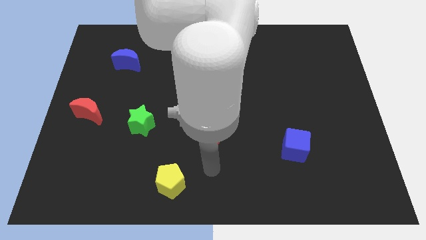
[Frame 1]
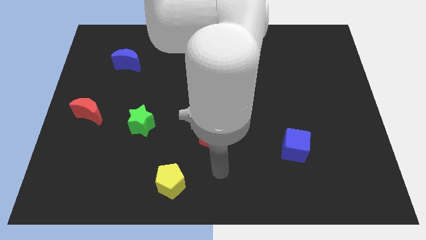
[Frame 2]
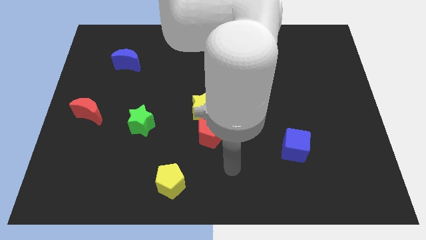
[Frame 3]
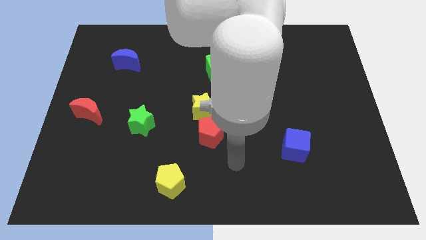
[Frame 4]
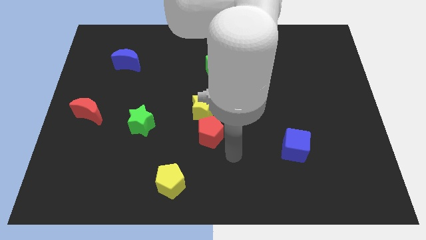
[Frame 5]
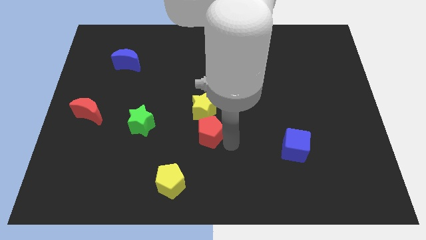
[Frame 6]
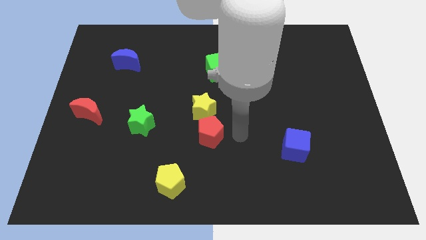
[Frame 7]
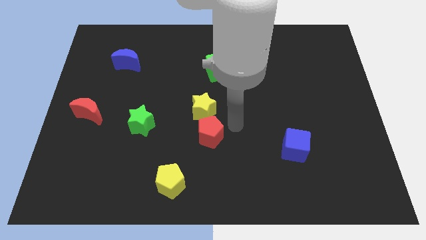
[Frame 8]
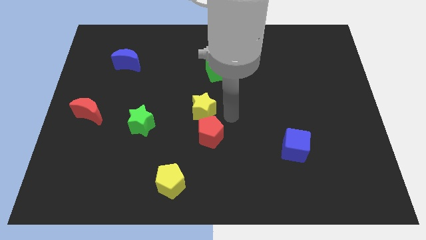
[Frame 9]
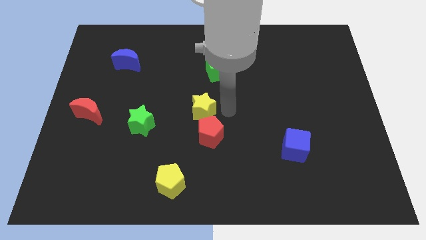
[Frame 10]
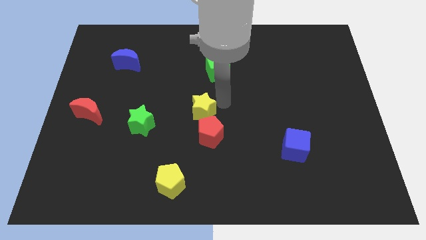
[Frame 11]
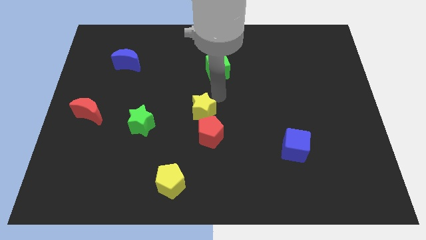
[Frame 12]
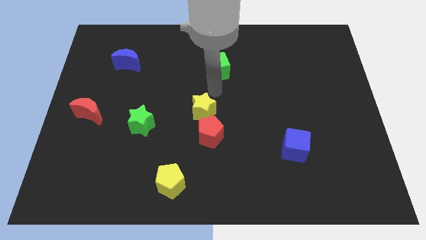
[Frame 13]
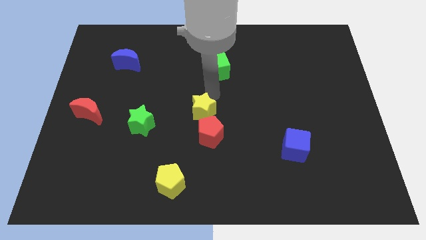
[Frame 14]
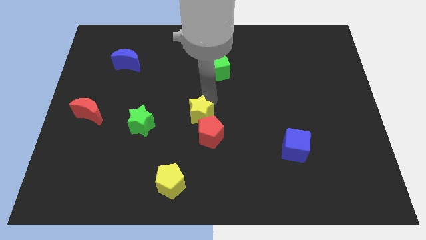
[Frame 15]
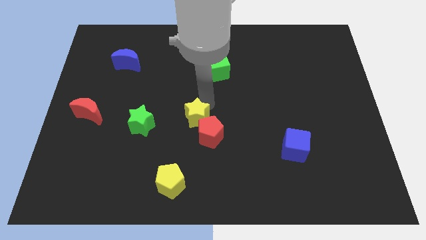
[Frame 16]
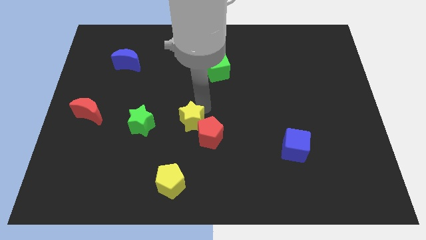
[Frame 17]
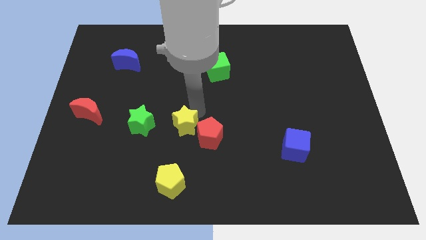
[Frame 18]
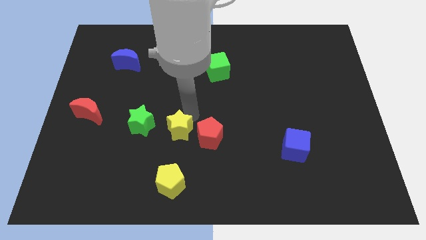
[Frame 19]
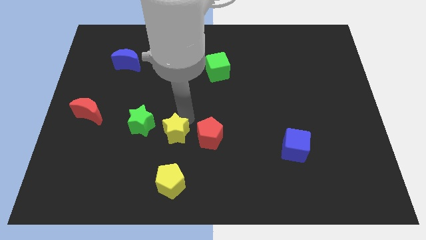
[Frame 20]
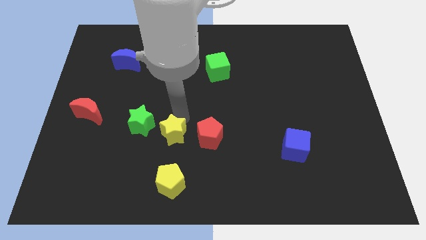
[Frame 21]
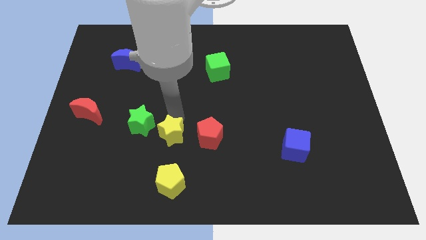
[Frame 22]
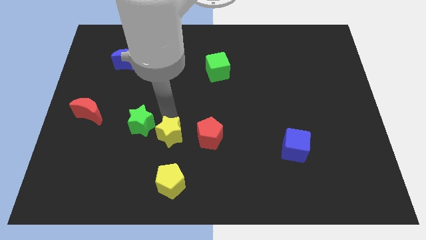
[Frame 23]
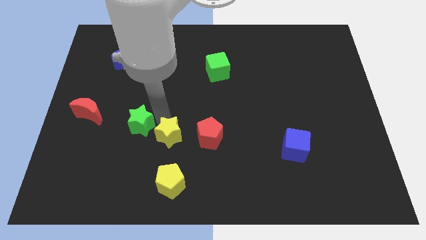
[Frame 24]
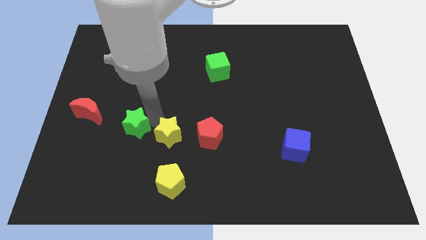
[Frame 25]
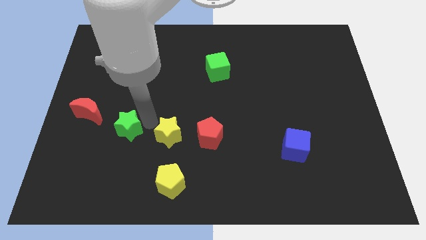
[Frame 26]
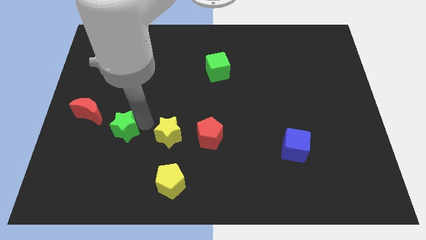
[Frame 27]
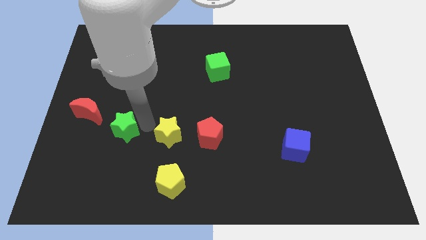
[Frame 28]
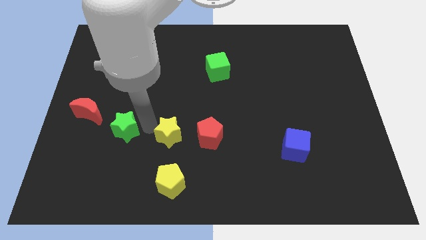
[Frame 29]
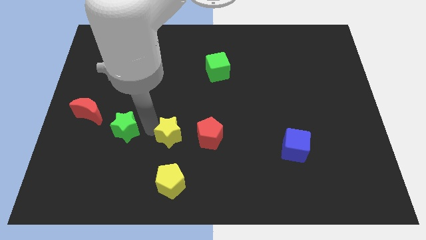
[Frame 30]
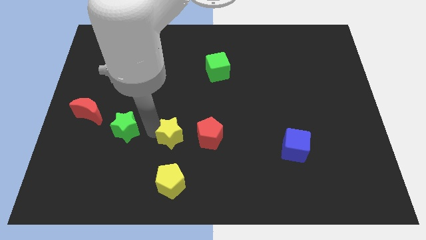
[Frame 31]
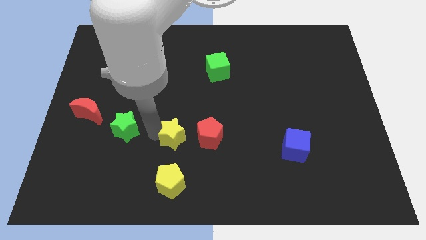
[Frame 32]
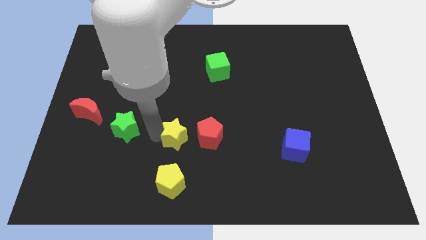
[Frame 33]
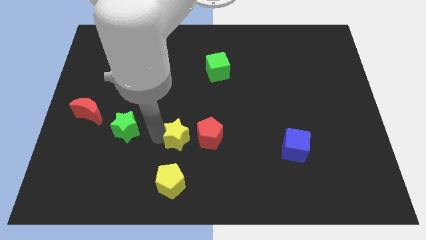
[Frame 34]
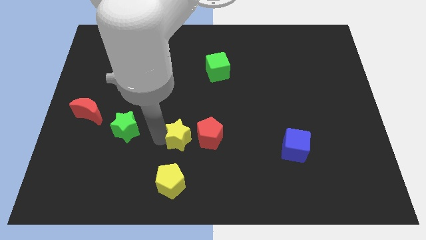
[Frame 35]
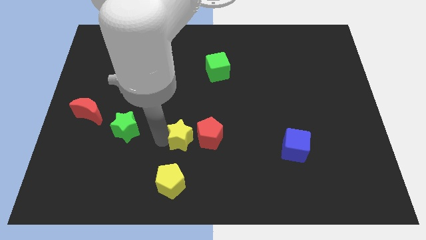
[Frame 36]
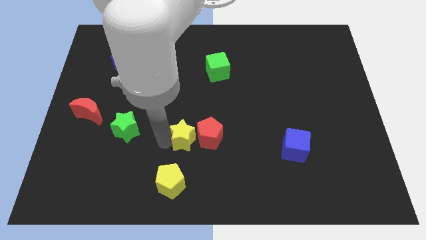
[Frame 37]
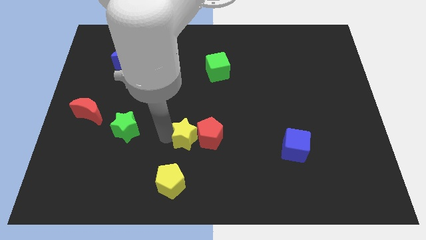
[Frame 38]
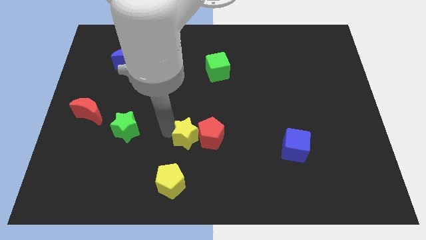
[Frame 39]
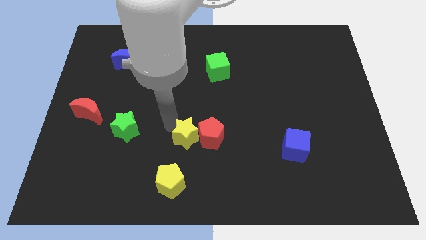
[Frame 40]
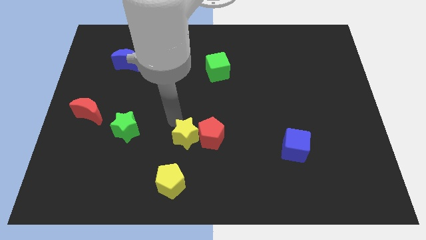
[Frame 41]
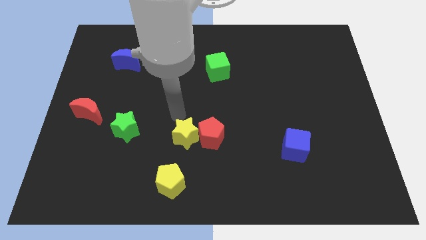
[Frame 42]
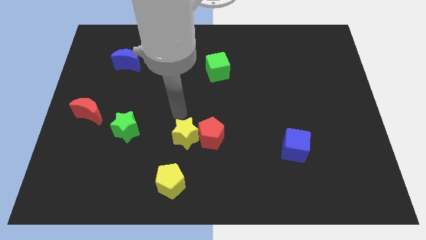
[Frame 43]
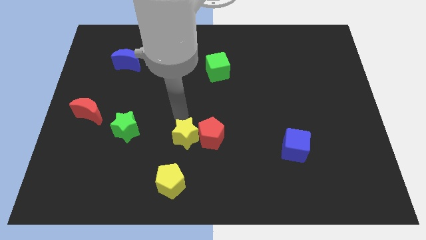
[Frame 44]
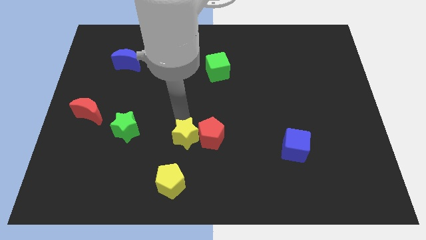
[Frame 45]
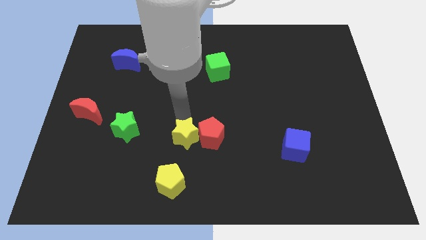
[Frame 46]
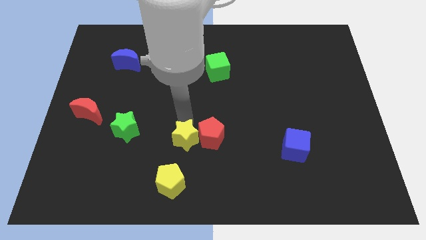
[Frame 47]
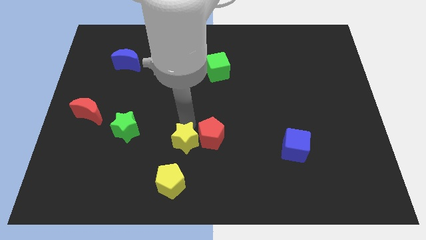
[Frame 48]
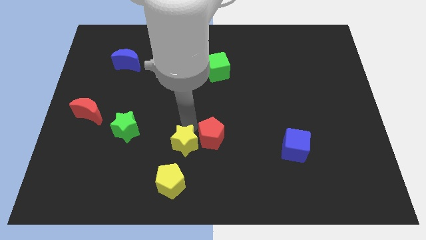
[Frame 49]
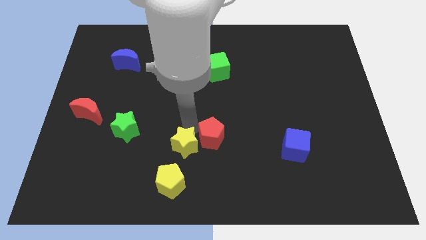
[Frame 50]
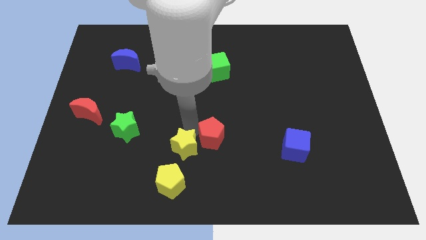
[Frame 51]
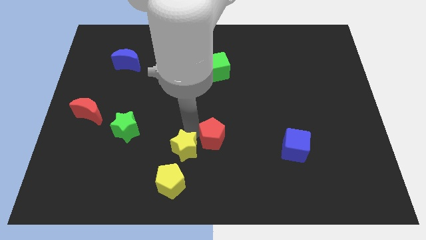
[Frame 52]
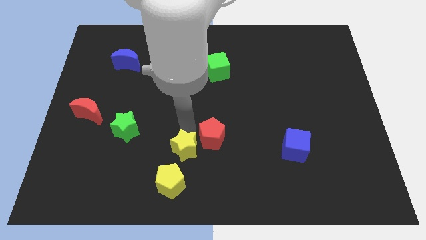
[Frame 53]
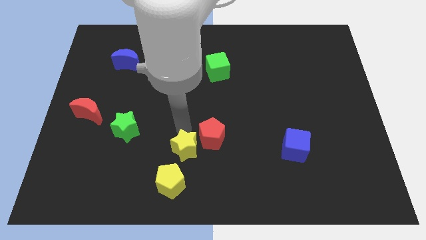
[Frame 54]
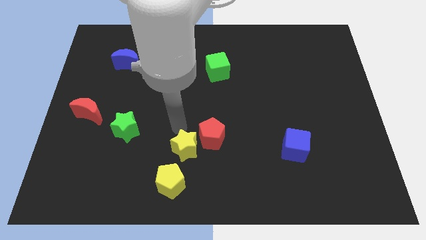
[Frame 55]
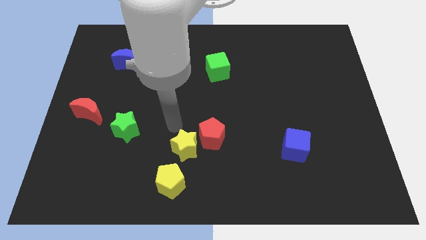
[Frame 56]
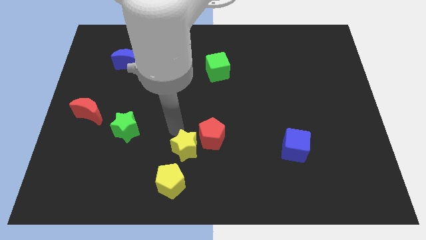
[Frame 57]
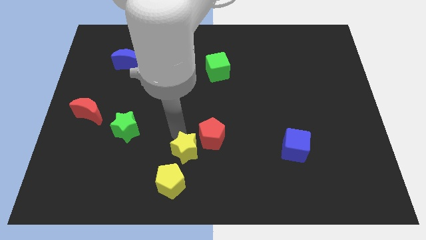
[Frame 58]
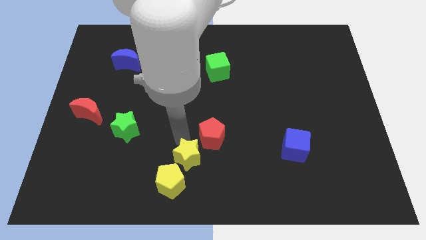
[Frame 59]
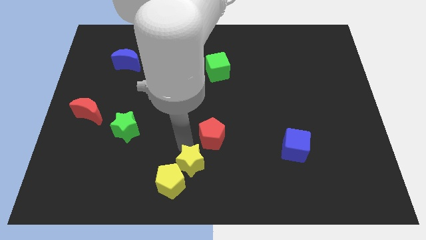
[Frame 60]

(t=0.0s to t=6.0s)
put the yellow star to the bottom
